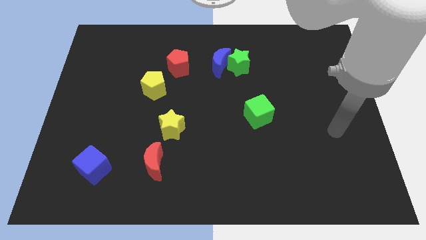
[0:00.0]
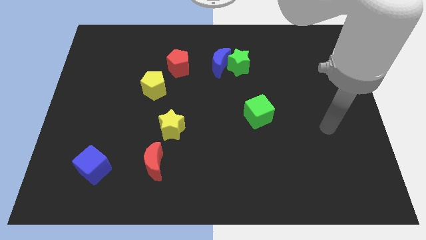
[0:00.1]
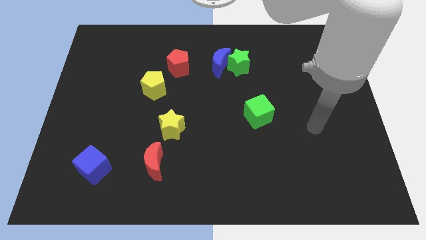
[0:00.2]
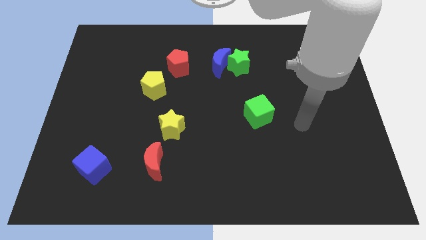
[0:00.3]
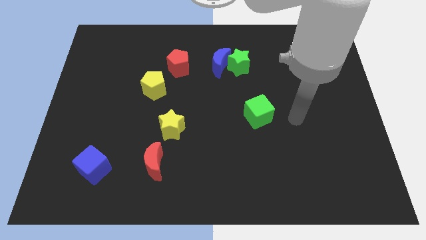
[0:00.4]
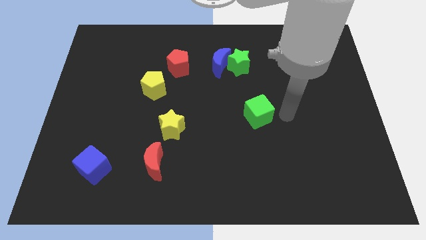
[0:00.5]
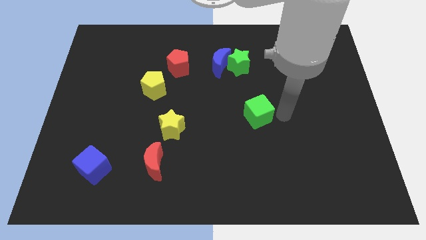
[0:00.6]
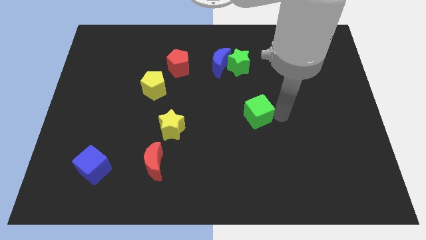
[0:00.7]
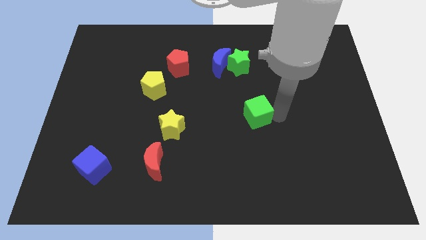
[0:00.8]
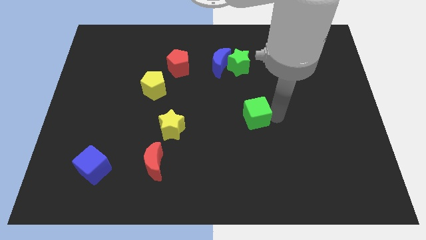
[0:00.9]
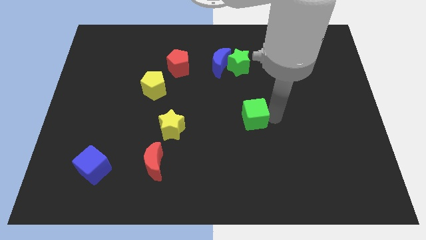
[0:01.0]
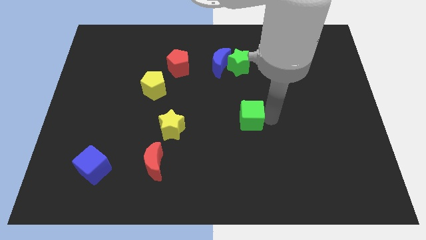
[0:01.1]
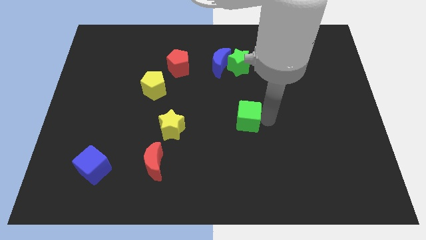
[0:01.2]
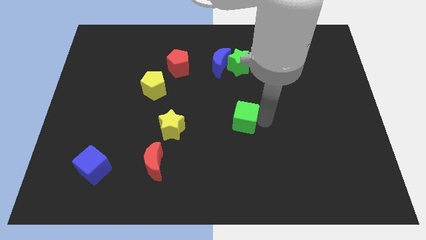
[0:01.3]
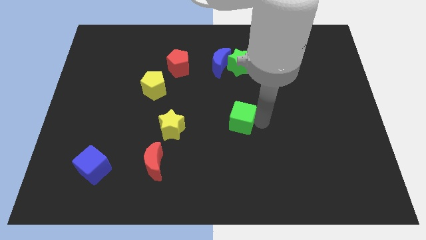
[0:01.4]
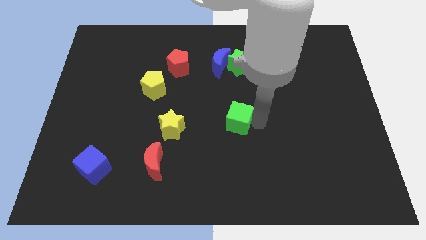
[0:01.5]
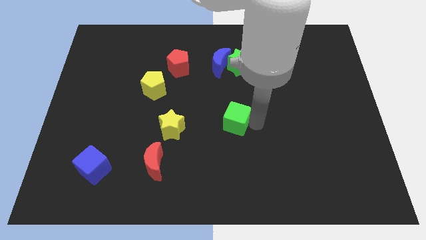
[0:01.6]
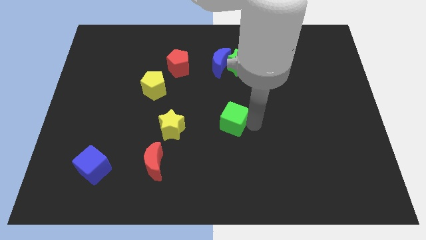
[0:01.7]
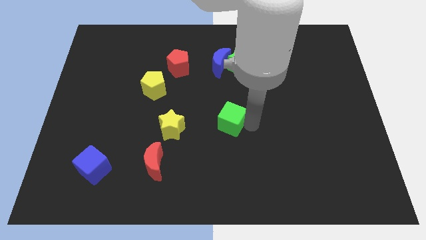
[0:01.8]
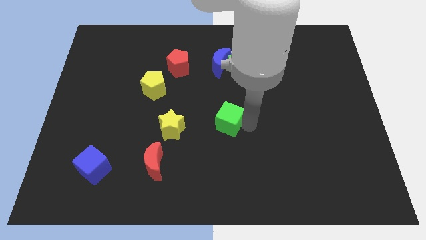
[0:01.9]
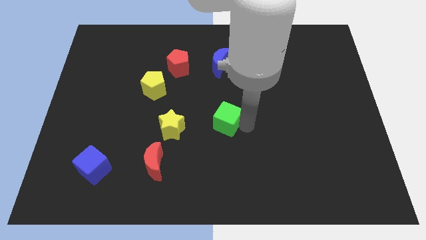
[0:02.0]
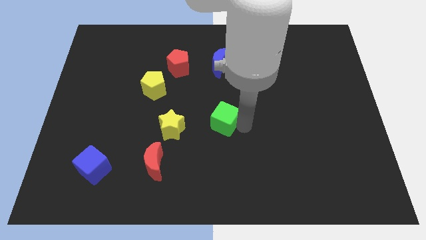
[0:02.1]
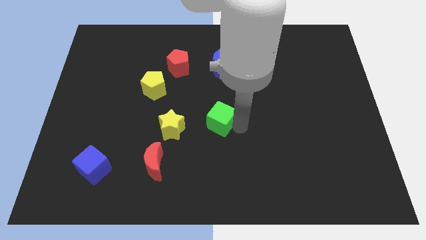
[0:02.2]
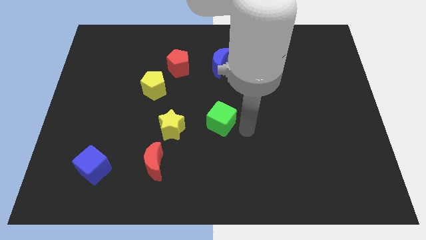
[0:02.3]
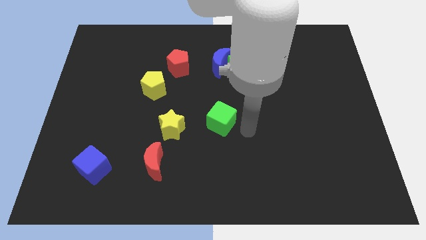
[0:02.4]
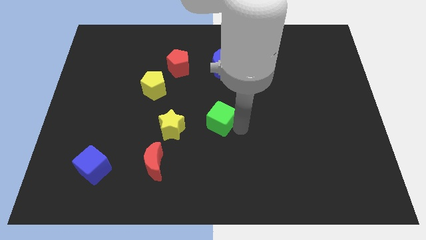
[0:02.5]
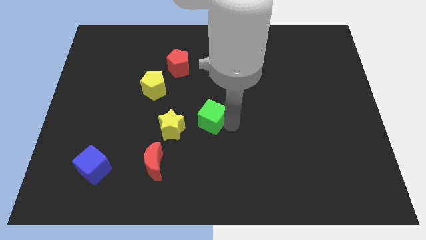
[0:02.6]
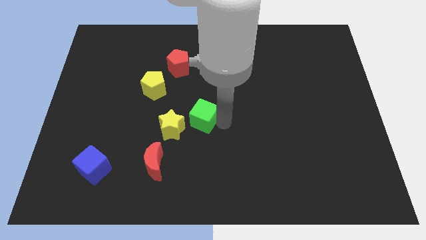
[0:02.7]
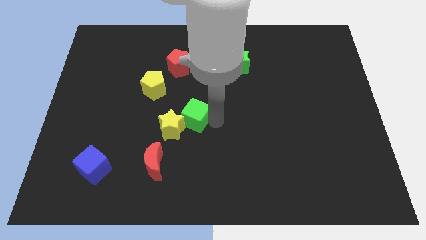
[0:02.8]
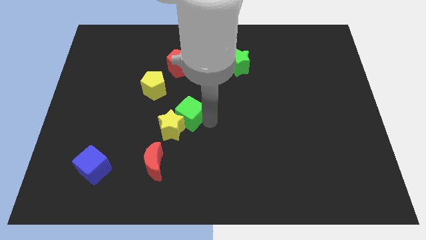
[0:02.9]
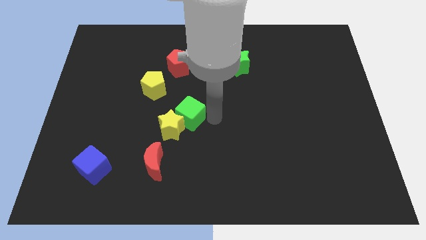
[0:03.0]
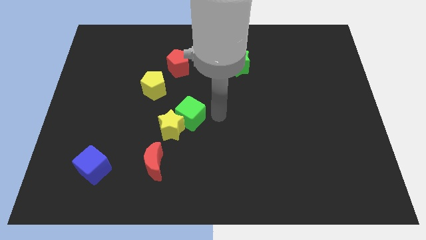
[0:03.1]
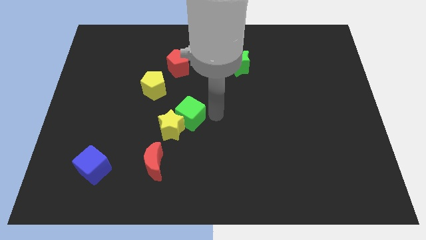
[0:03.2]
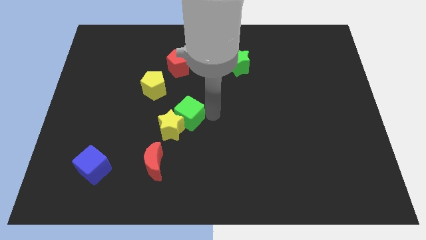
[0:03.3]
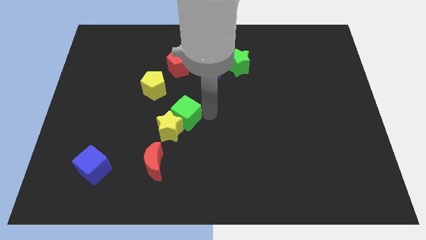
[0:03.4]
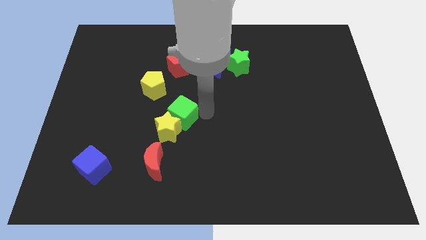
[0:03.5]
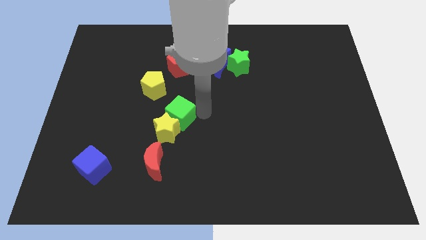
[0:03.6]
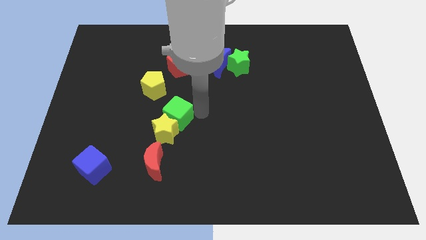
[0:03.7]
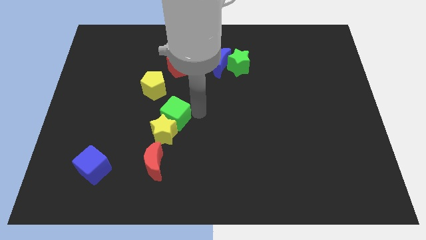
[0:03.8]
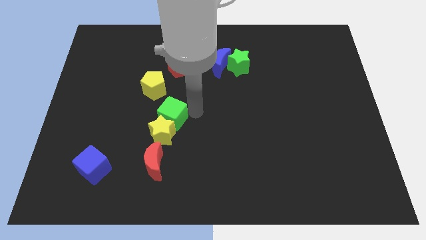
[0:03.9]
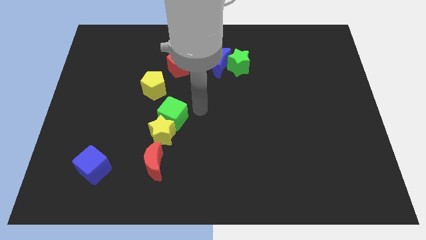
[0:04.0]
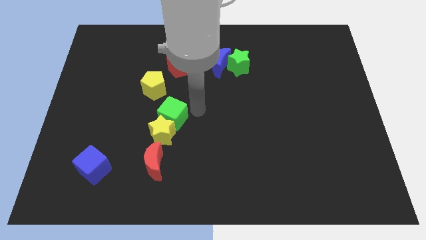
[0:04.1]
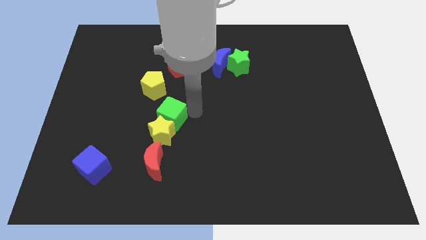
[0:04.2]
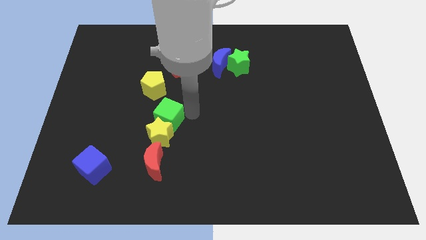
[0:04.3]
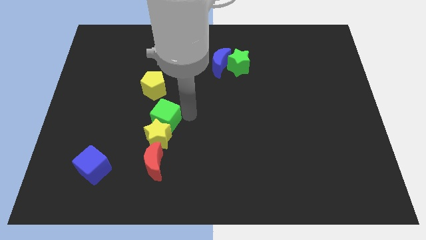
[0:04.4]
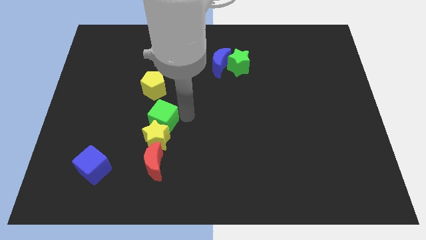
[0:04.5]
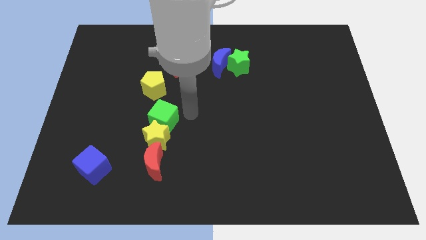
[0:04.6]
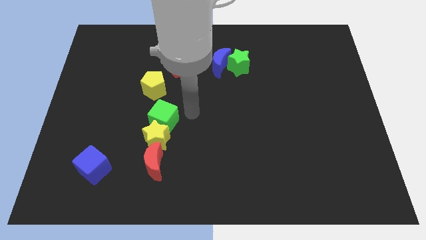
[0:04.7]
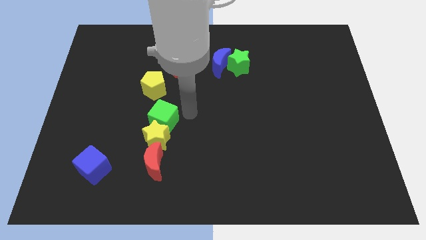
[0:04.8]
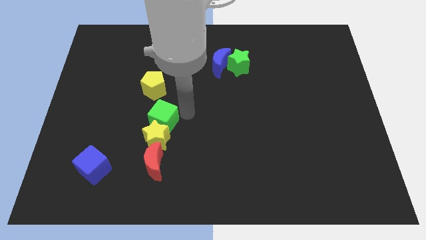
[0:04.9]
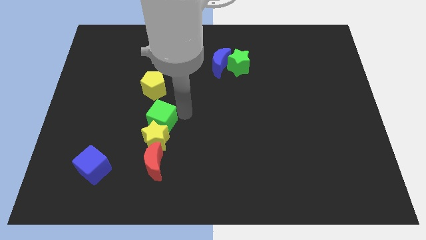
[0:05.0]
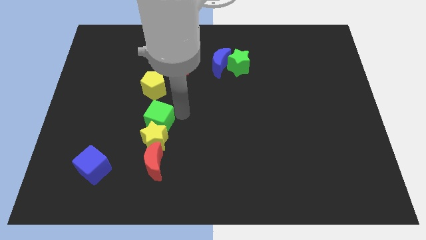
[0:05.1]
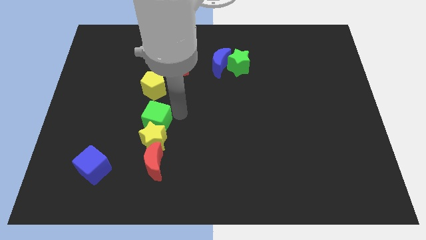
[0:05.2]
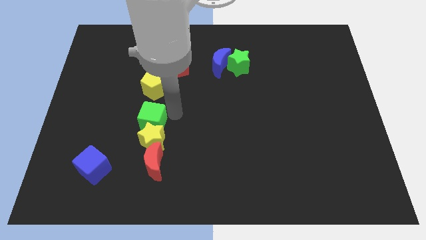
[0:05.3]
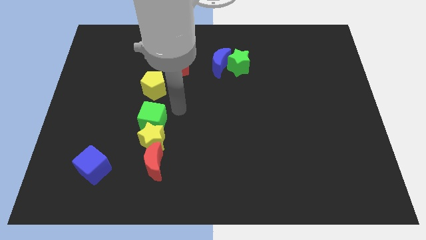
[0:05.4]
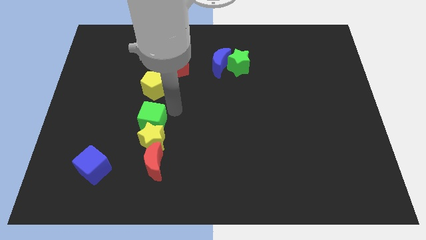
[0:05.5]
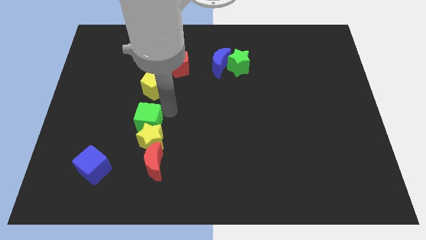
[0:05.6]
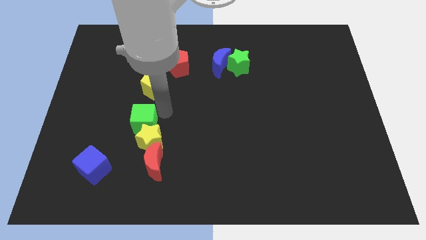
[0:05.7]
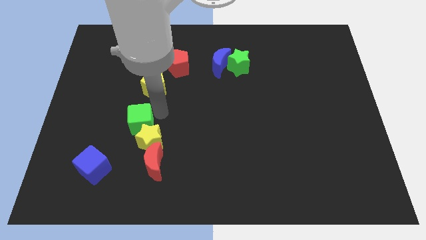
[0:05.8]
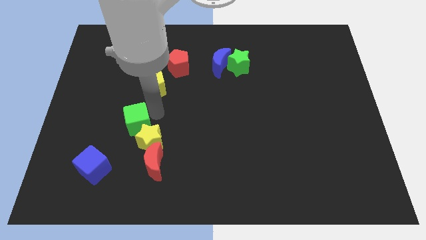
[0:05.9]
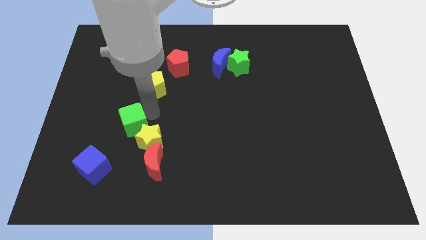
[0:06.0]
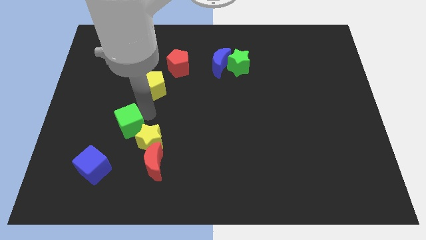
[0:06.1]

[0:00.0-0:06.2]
move the green cube just left of the yellow star

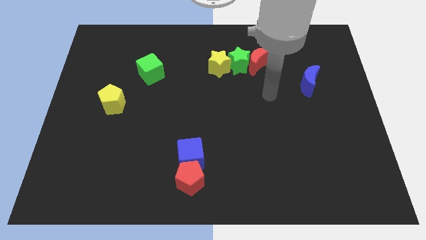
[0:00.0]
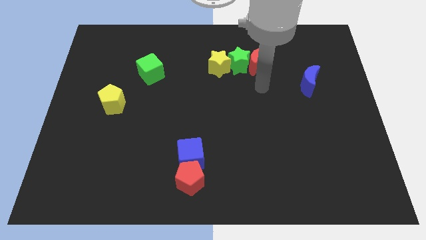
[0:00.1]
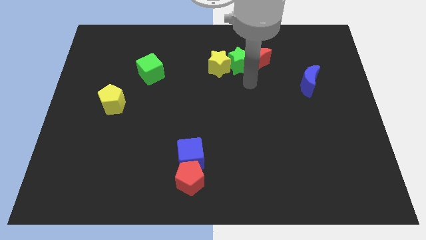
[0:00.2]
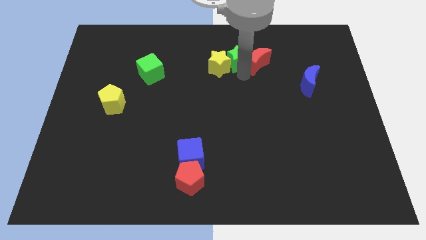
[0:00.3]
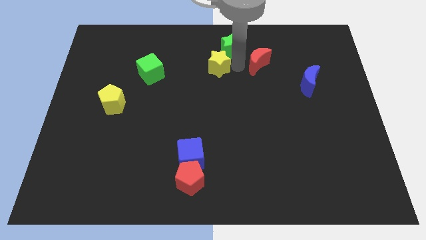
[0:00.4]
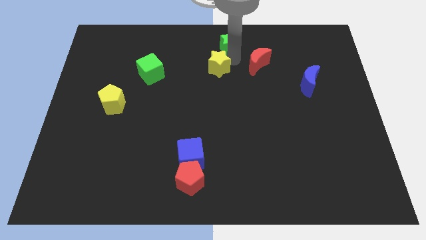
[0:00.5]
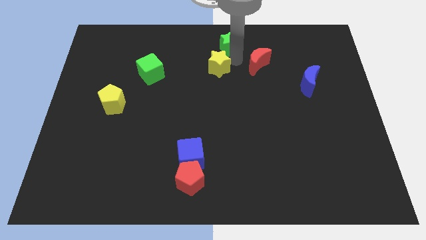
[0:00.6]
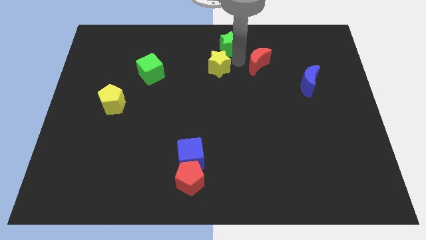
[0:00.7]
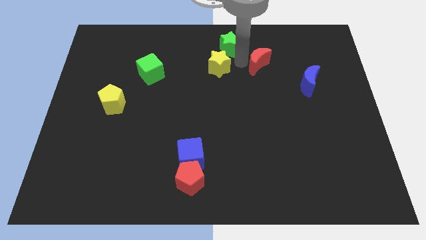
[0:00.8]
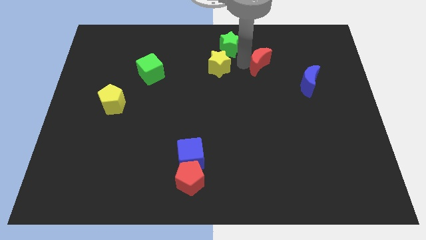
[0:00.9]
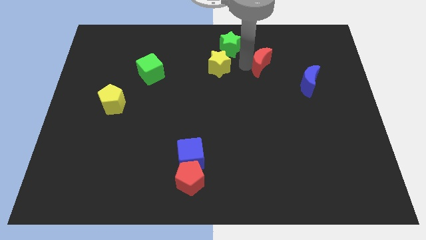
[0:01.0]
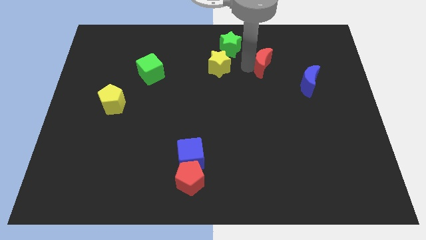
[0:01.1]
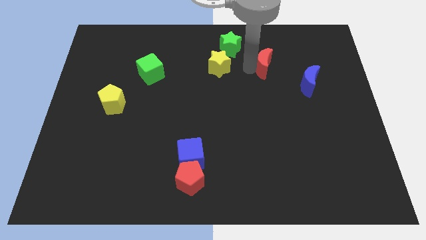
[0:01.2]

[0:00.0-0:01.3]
slide the red moon to the top left of the blue moon
